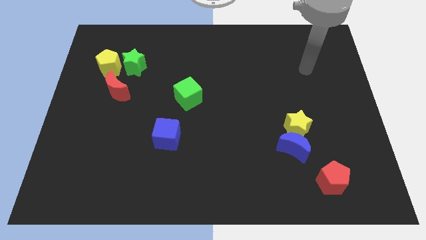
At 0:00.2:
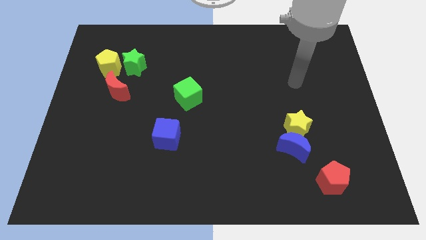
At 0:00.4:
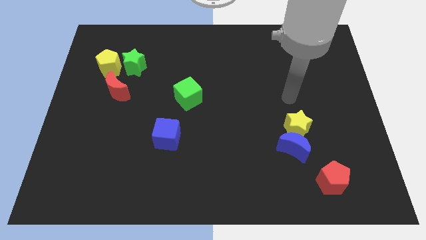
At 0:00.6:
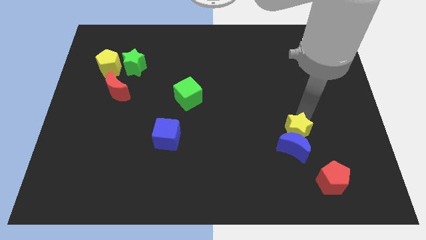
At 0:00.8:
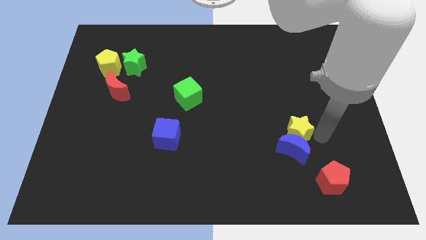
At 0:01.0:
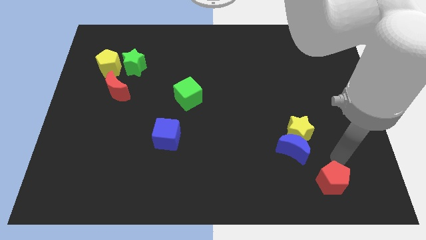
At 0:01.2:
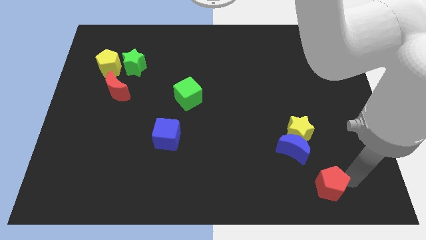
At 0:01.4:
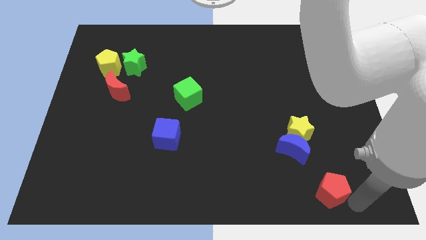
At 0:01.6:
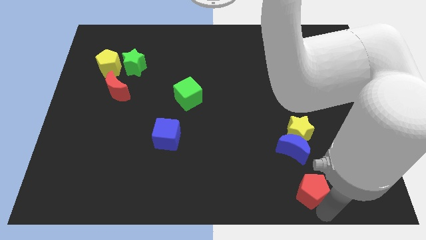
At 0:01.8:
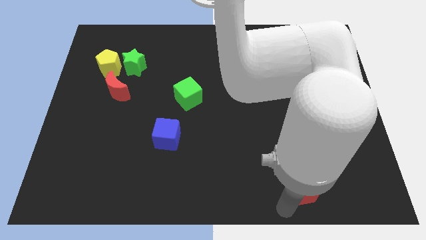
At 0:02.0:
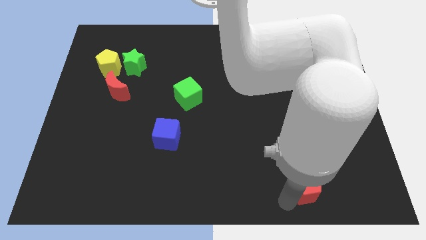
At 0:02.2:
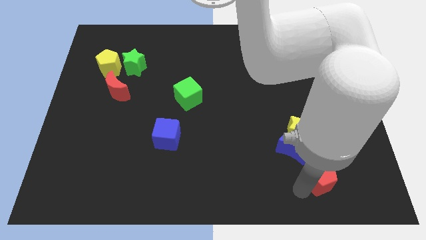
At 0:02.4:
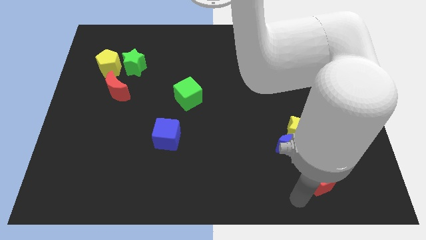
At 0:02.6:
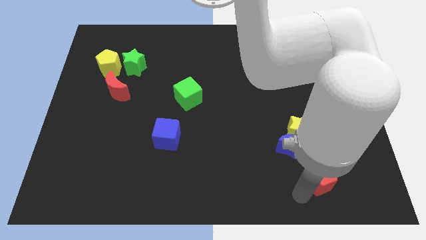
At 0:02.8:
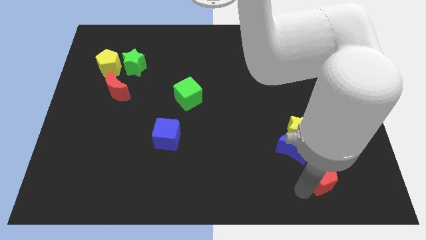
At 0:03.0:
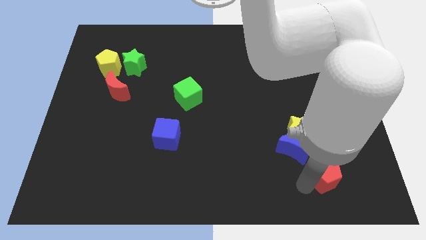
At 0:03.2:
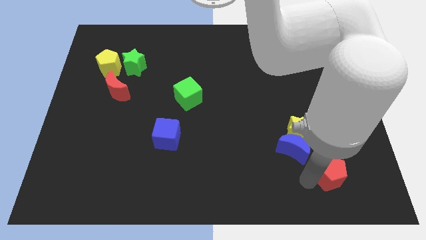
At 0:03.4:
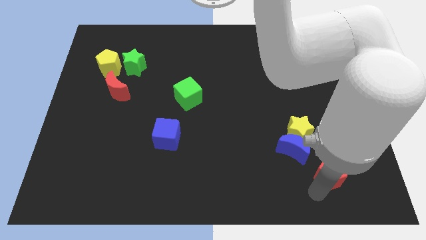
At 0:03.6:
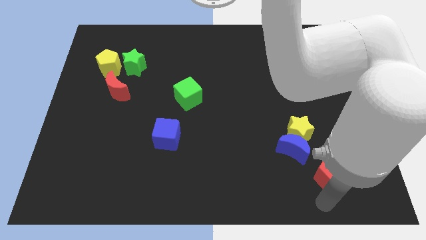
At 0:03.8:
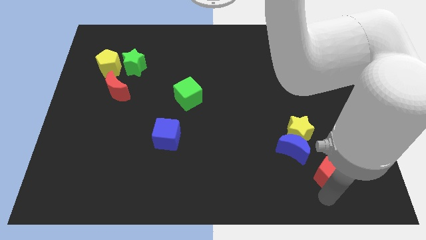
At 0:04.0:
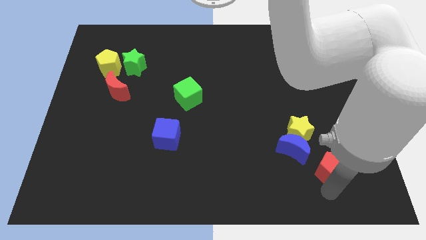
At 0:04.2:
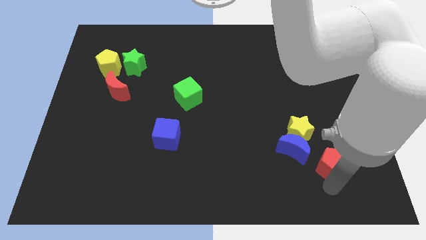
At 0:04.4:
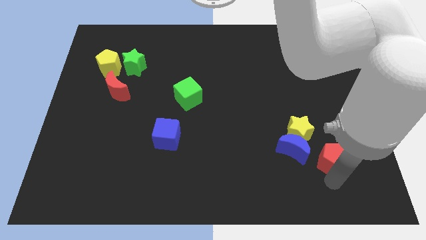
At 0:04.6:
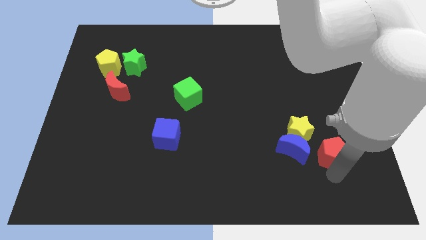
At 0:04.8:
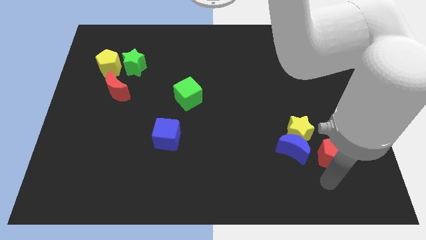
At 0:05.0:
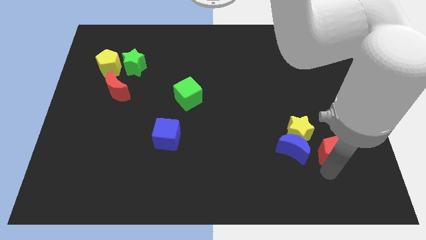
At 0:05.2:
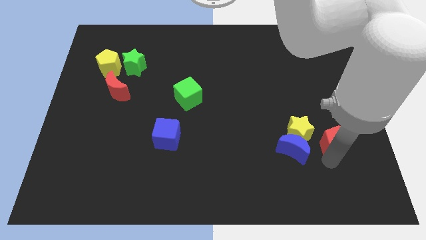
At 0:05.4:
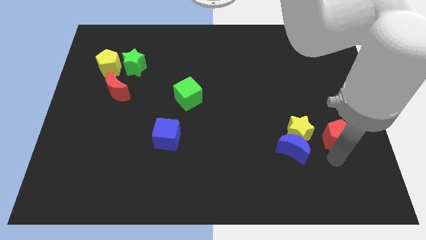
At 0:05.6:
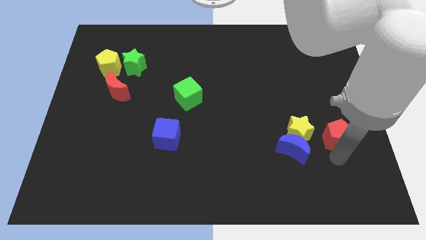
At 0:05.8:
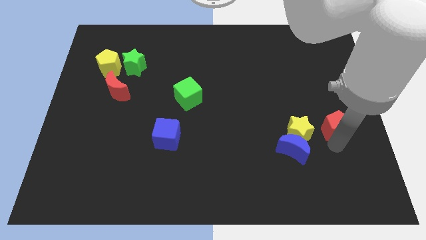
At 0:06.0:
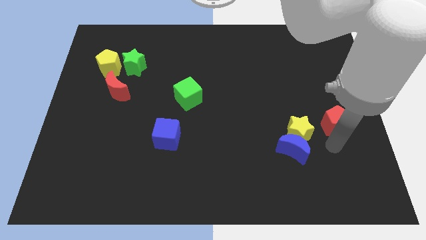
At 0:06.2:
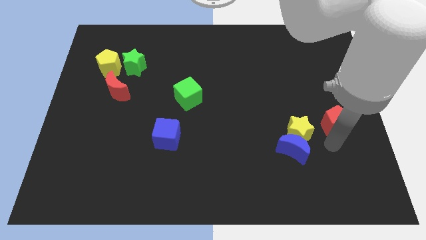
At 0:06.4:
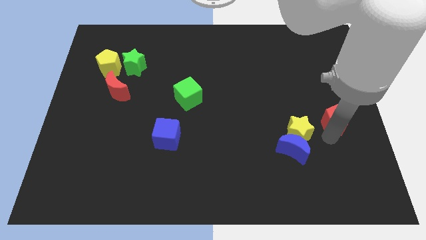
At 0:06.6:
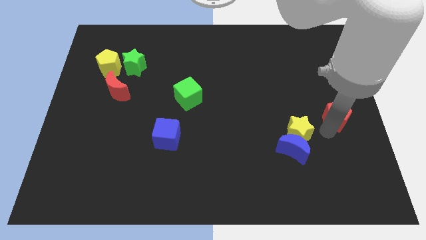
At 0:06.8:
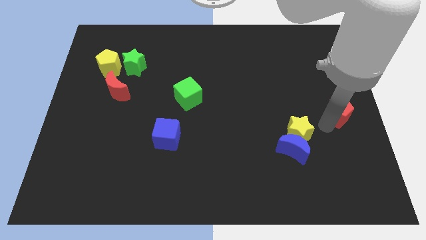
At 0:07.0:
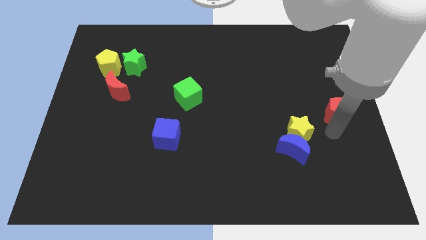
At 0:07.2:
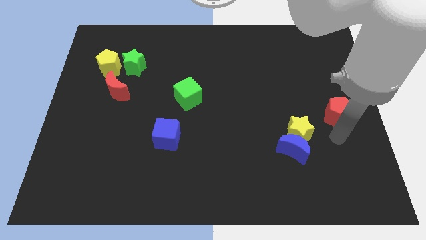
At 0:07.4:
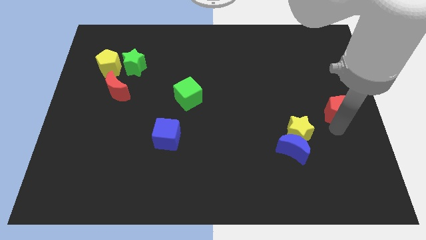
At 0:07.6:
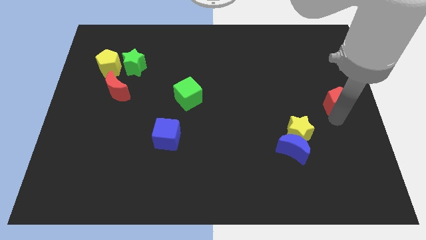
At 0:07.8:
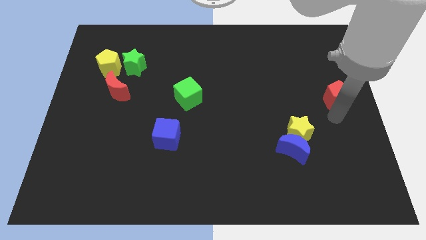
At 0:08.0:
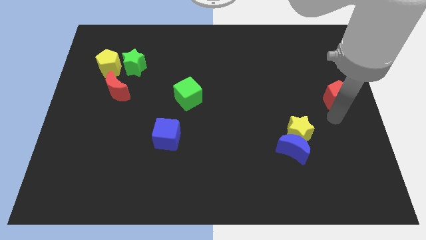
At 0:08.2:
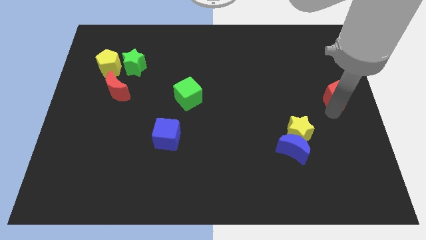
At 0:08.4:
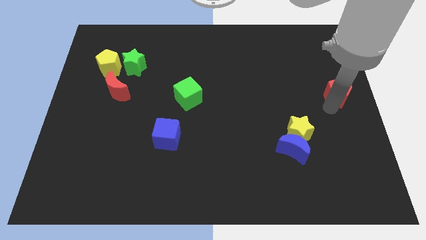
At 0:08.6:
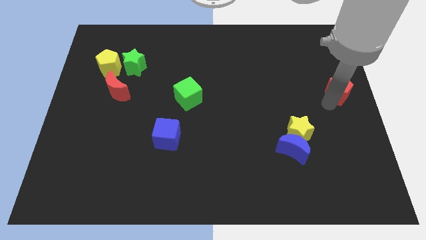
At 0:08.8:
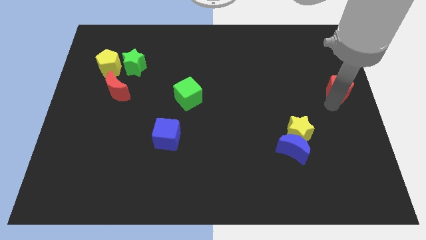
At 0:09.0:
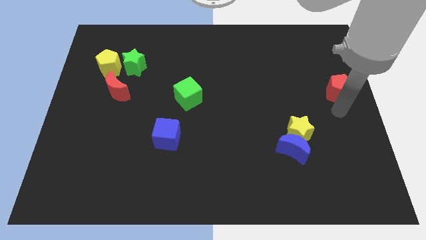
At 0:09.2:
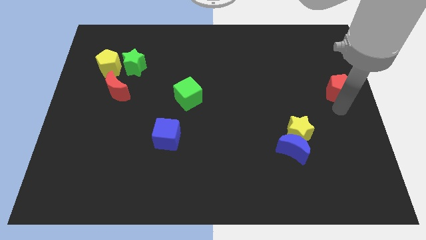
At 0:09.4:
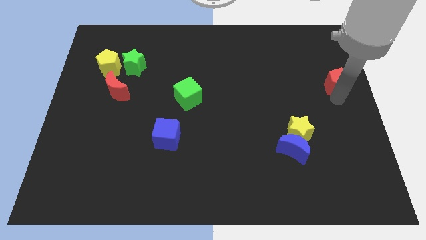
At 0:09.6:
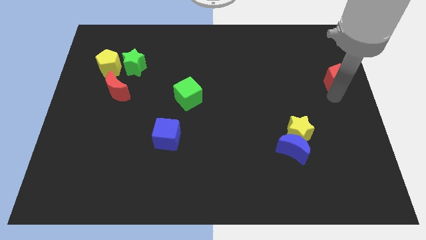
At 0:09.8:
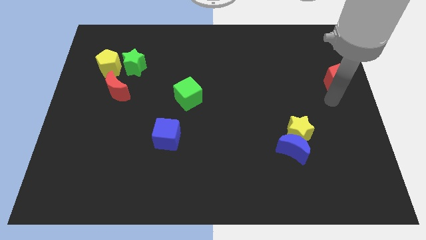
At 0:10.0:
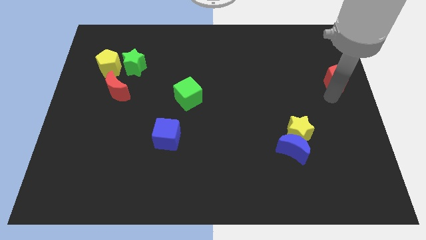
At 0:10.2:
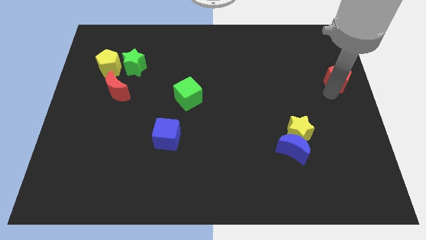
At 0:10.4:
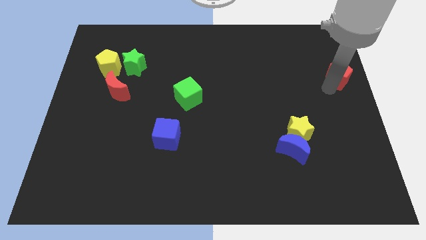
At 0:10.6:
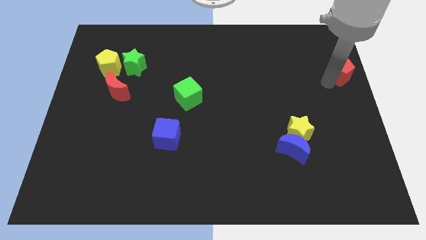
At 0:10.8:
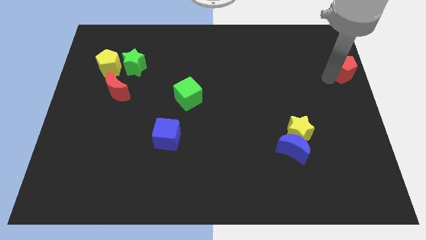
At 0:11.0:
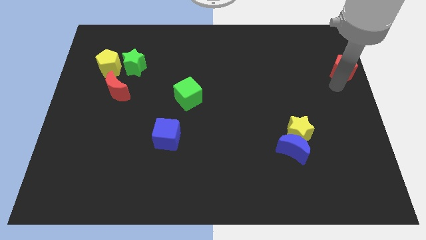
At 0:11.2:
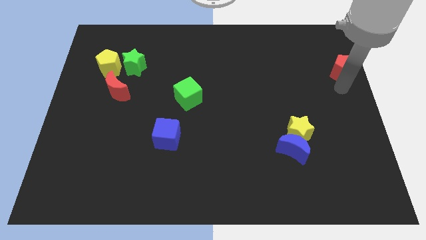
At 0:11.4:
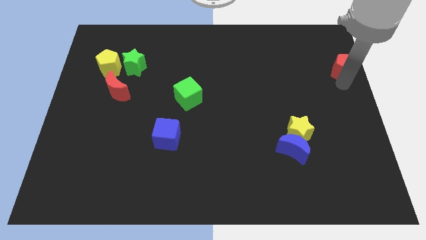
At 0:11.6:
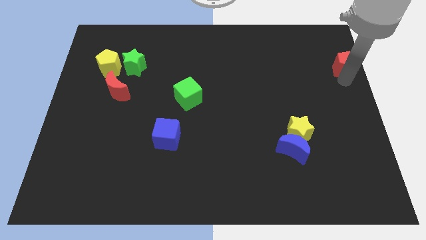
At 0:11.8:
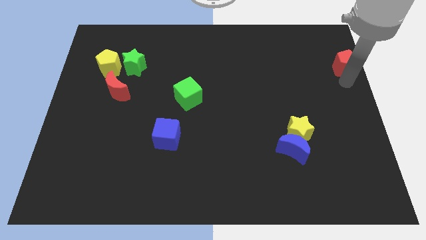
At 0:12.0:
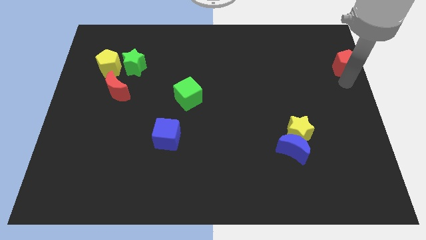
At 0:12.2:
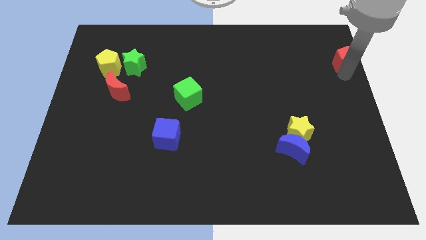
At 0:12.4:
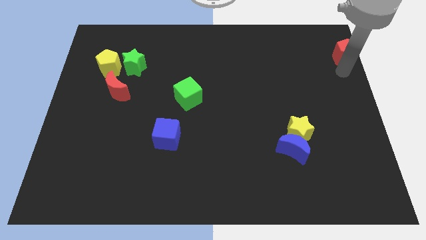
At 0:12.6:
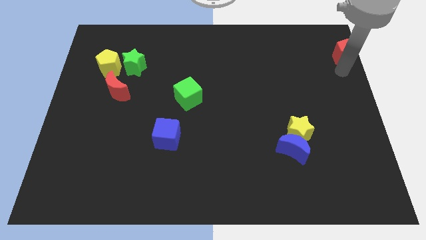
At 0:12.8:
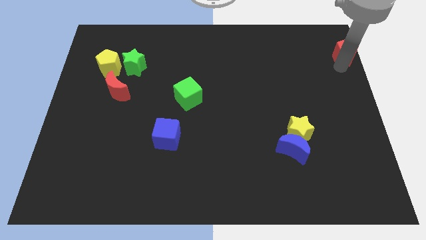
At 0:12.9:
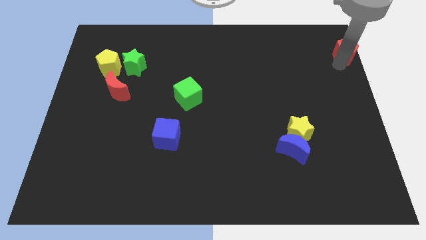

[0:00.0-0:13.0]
put the red pentagon to the upper right corner

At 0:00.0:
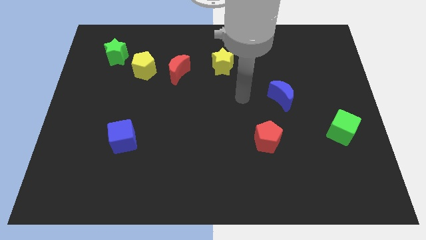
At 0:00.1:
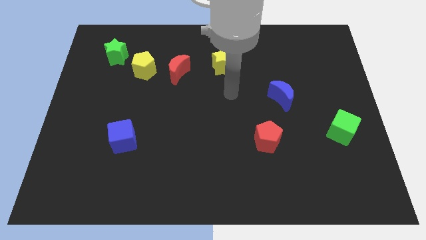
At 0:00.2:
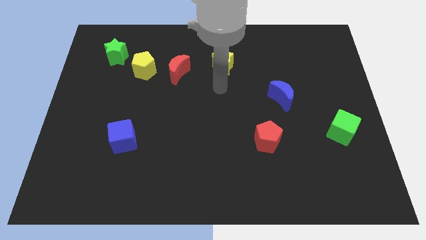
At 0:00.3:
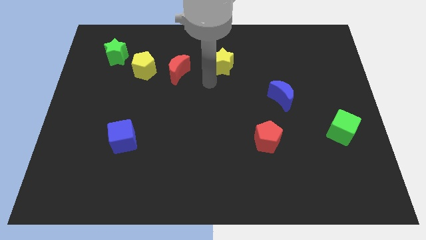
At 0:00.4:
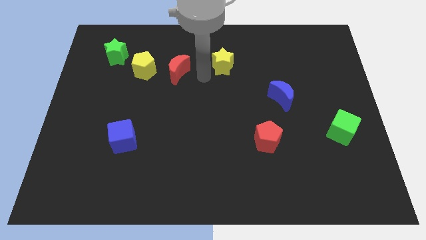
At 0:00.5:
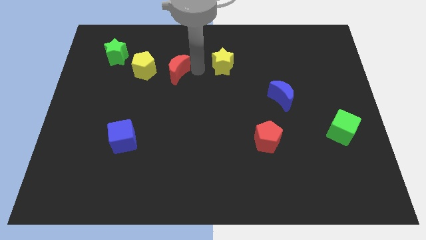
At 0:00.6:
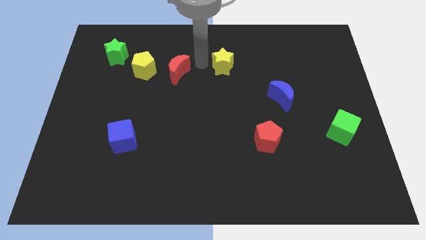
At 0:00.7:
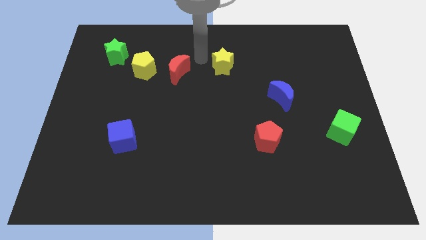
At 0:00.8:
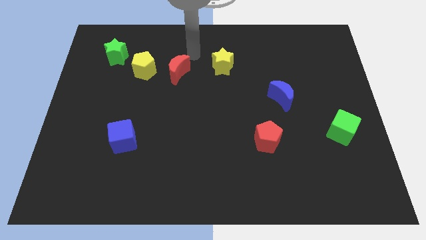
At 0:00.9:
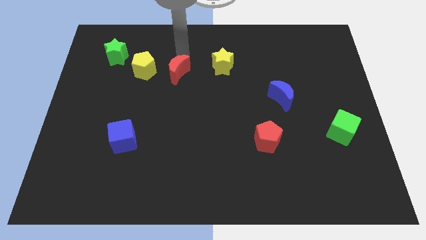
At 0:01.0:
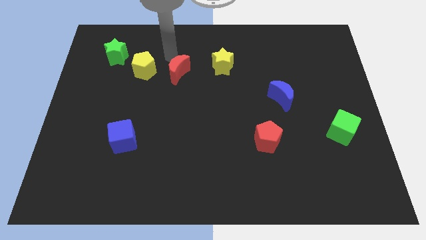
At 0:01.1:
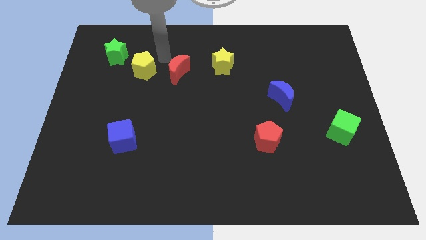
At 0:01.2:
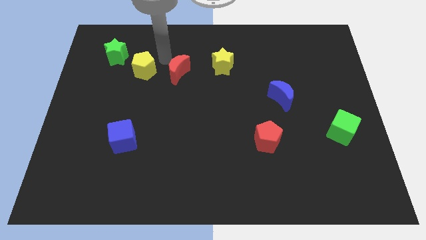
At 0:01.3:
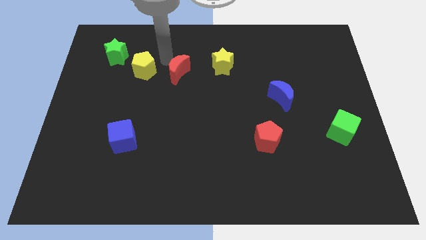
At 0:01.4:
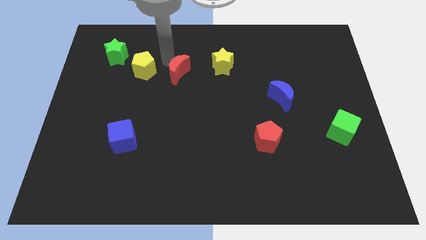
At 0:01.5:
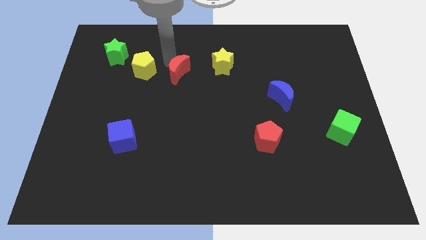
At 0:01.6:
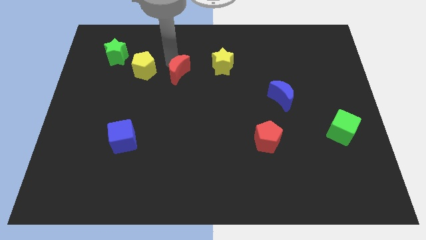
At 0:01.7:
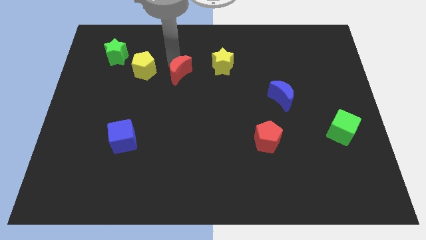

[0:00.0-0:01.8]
push the red moon to the middle of the board
